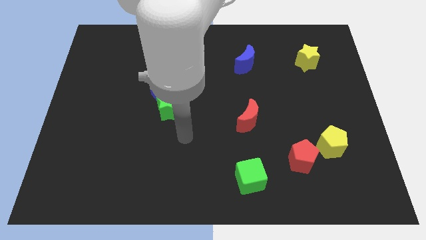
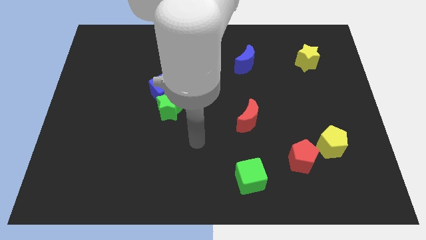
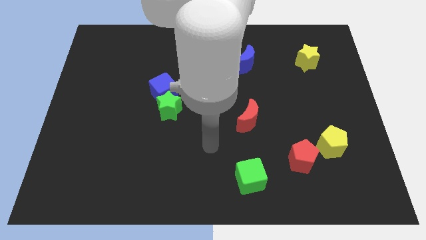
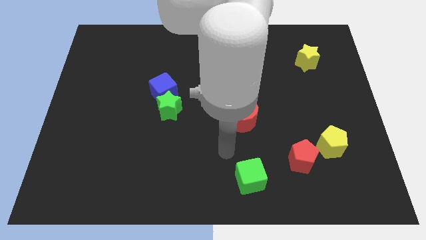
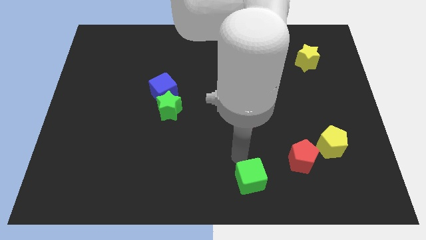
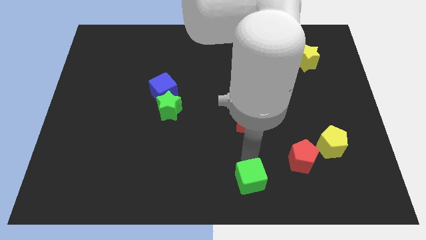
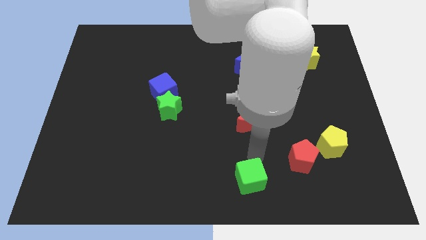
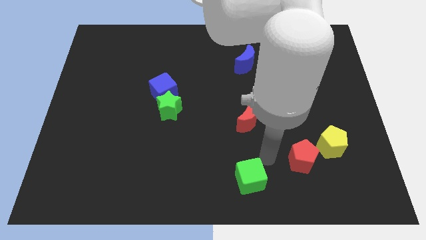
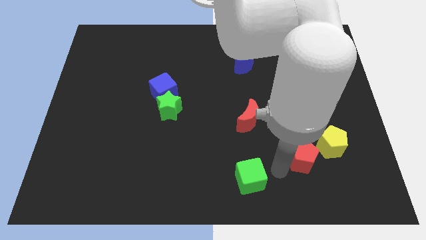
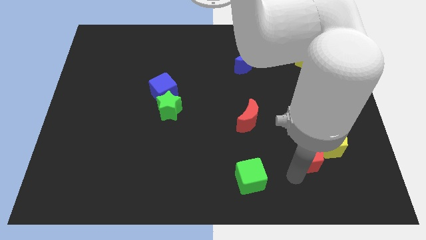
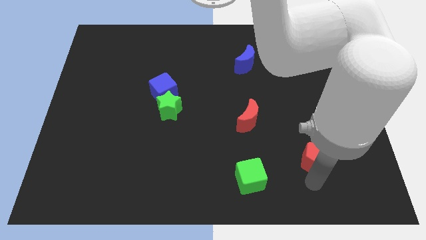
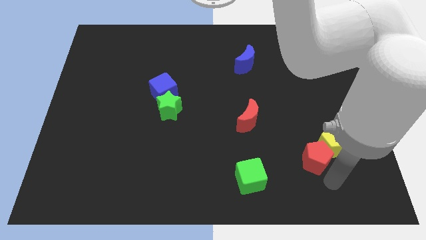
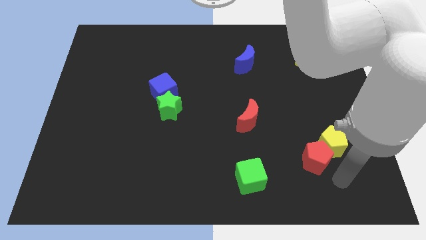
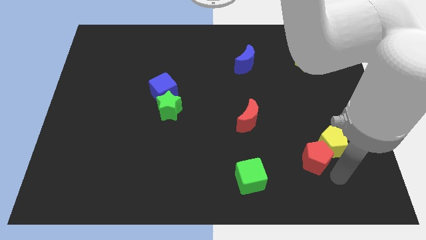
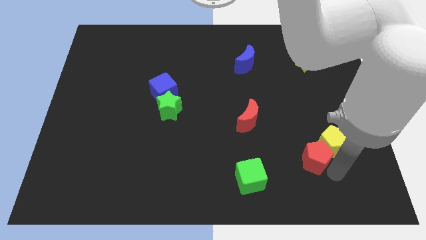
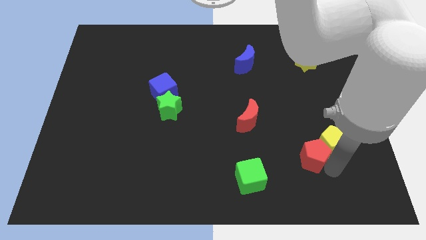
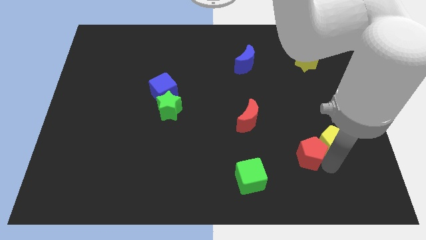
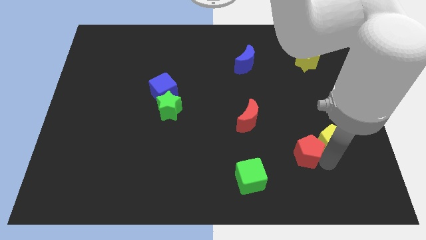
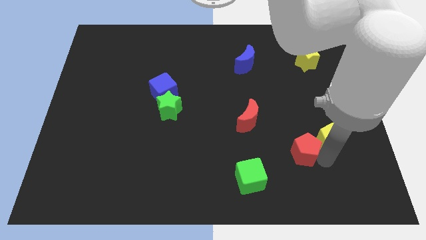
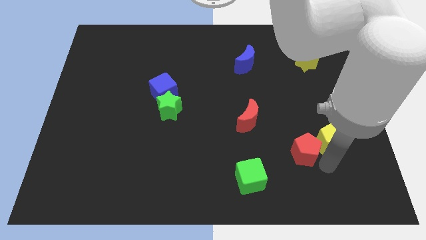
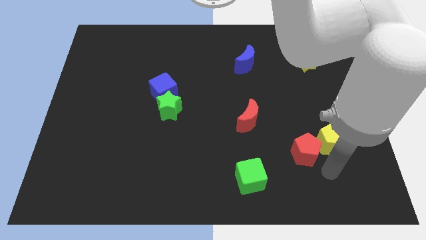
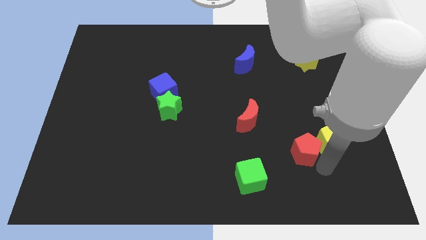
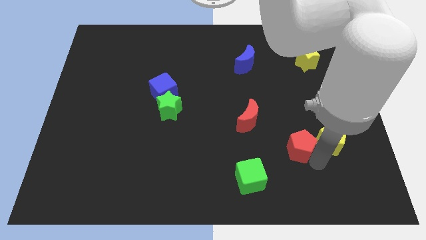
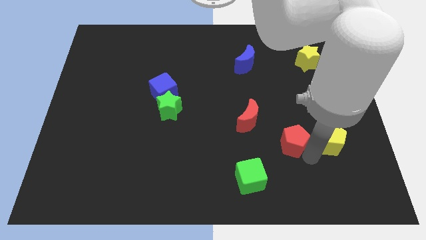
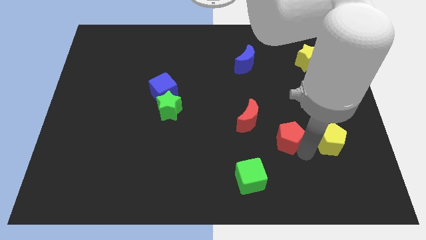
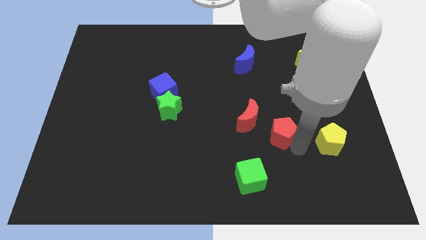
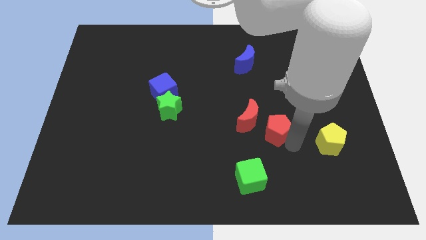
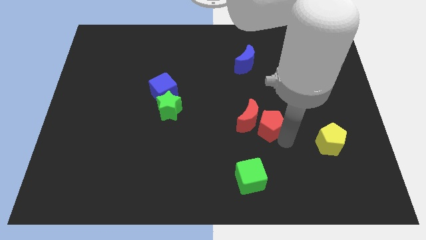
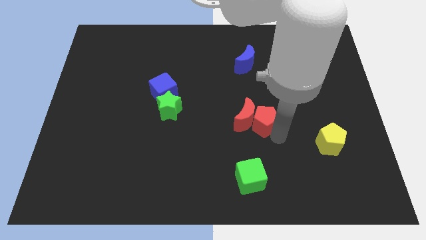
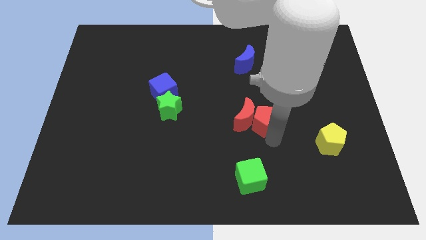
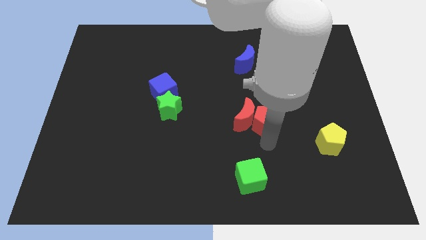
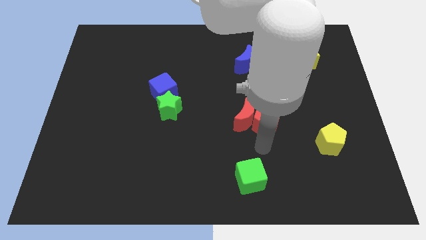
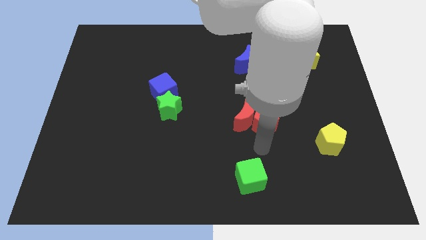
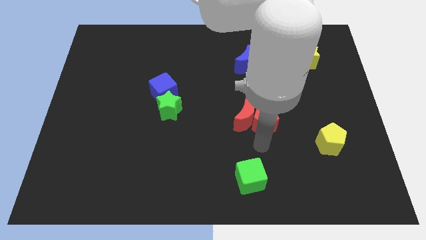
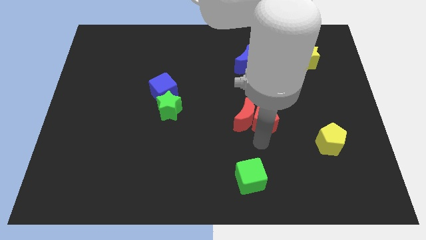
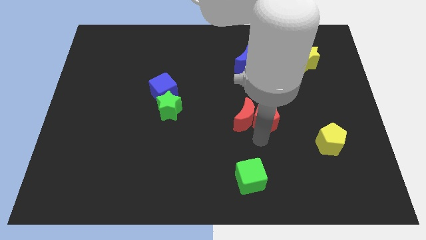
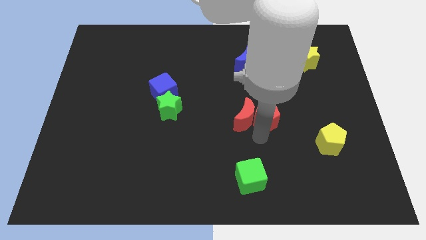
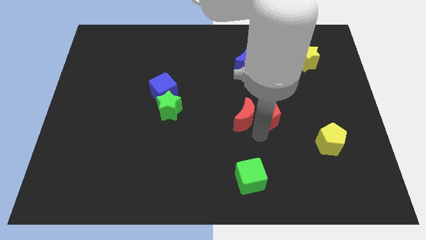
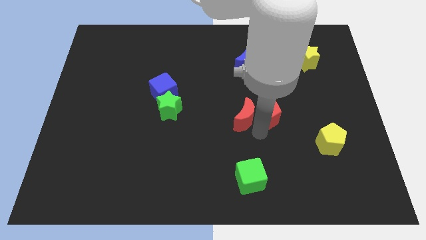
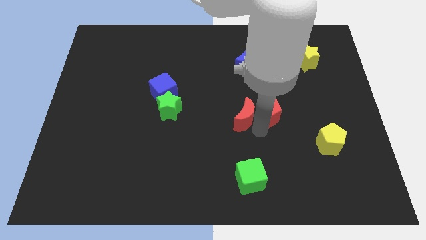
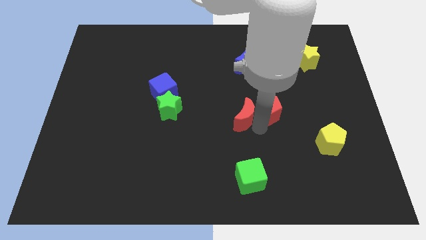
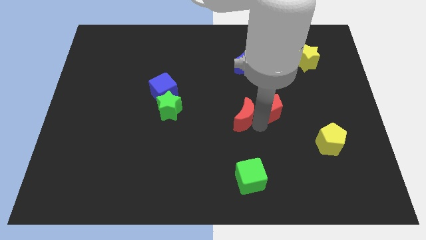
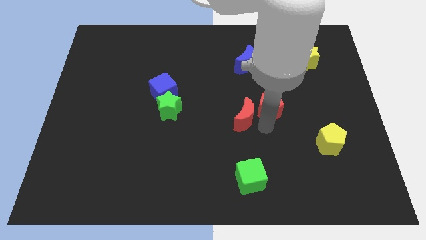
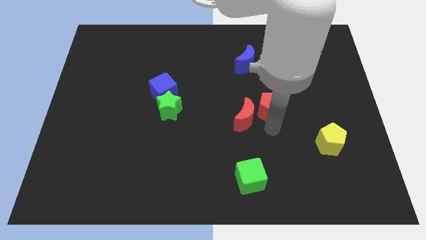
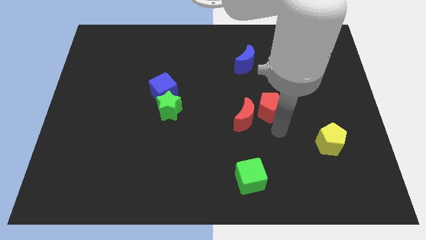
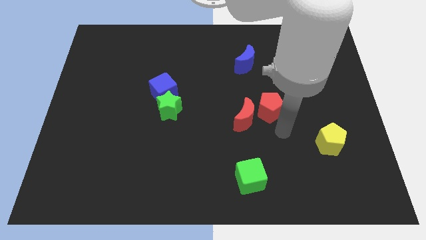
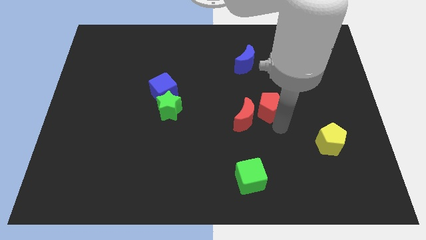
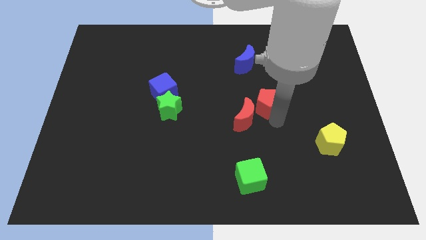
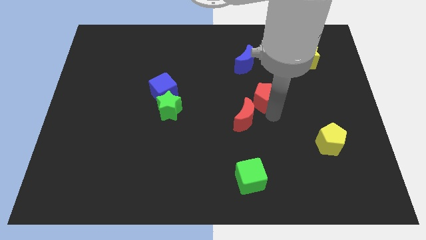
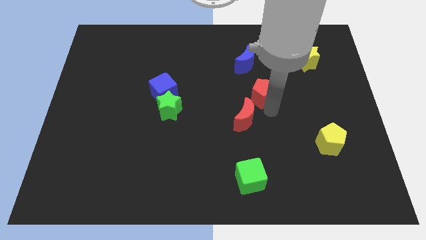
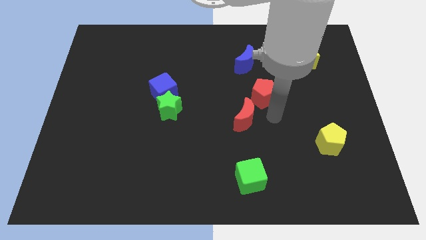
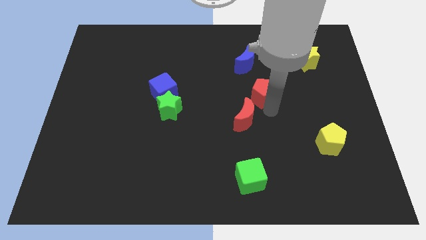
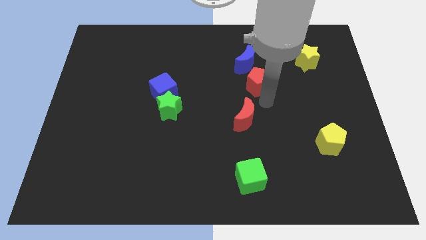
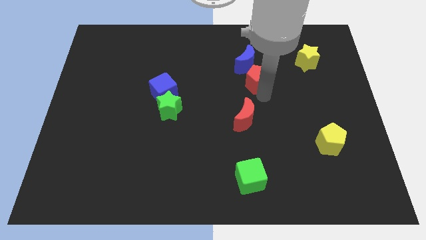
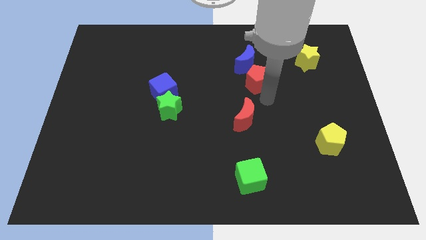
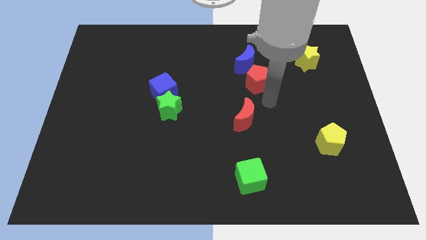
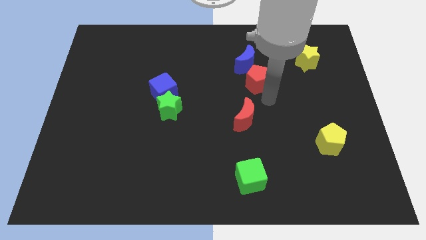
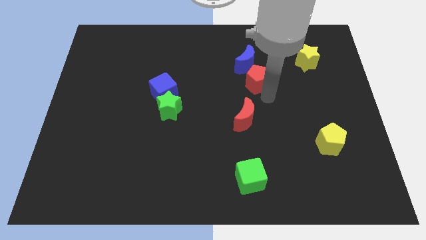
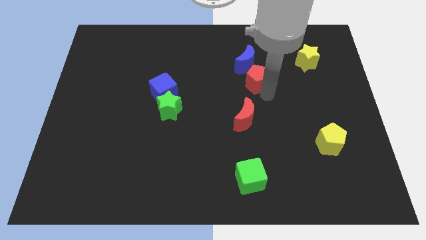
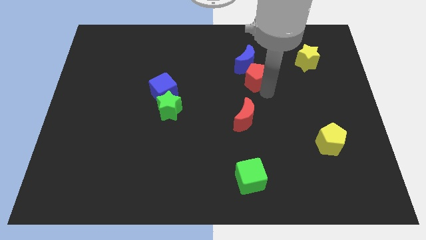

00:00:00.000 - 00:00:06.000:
move the red pentagon next to the blue moon

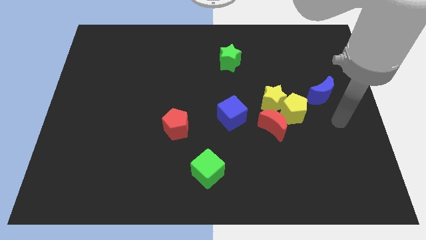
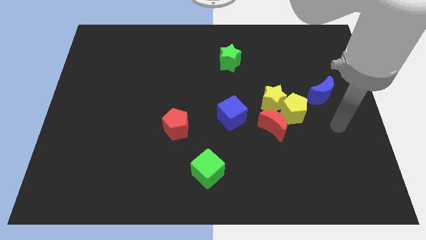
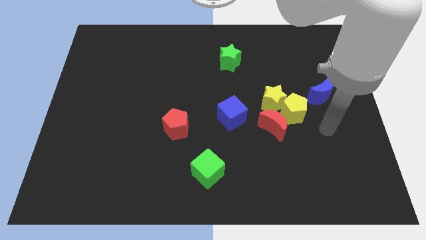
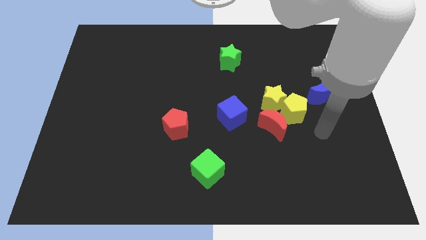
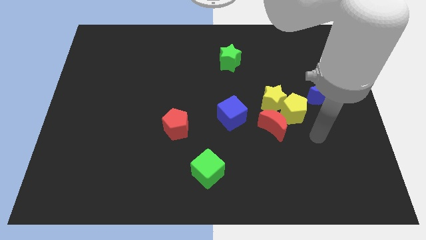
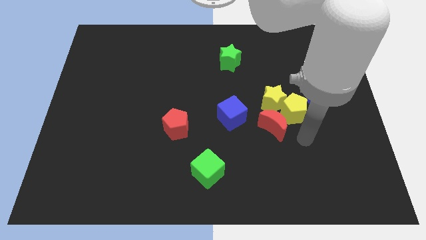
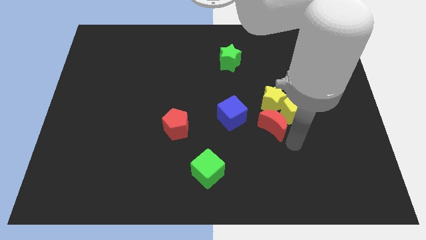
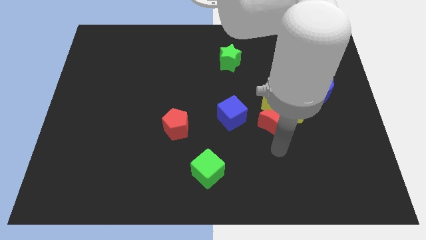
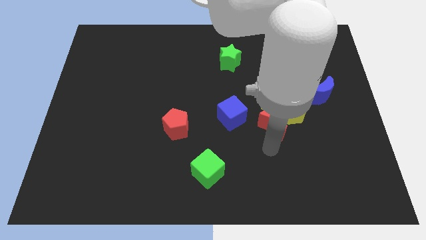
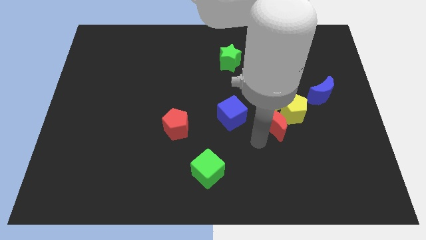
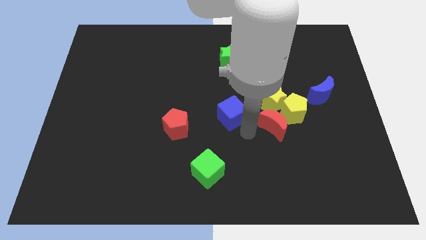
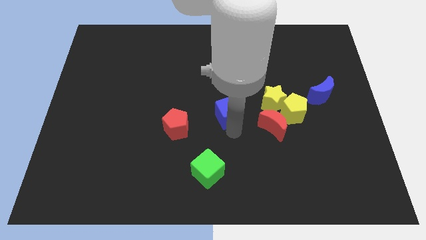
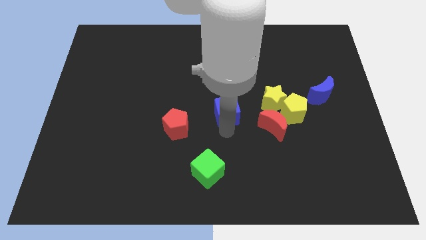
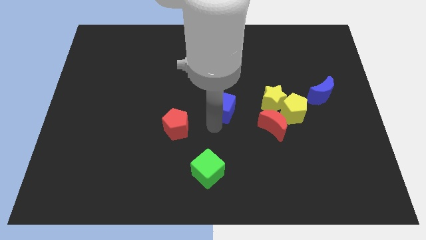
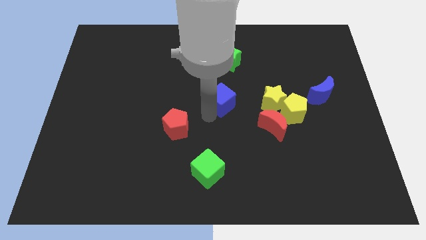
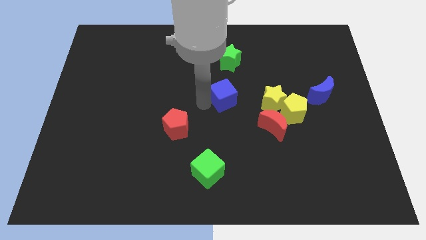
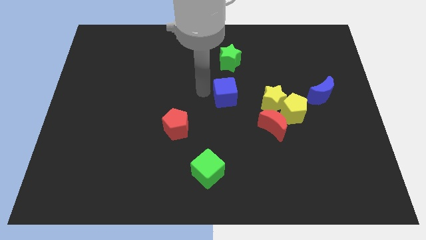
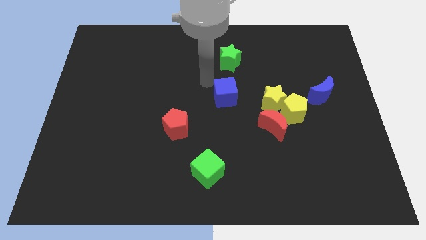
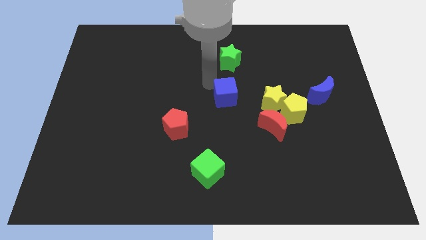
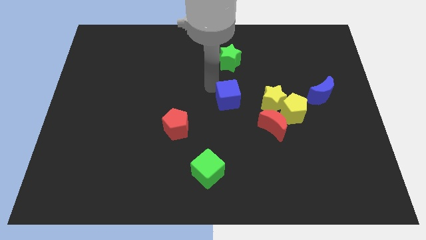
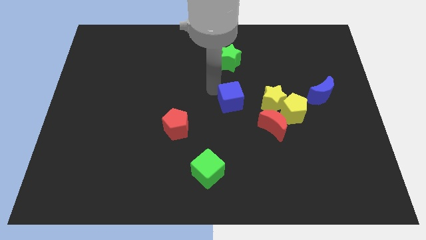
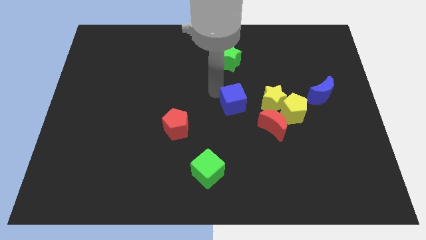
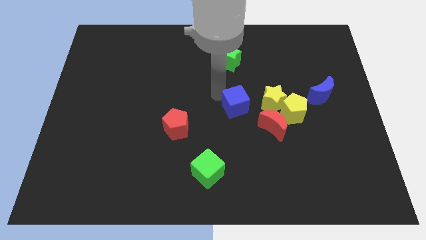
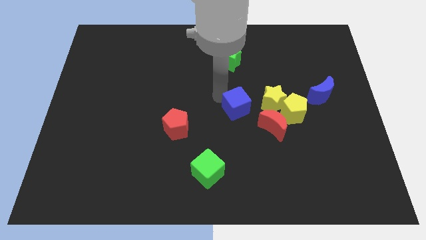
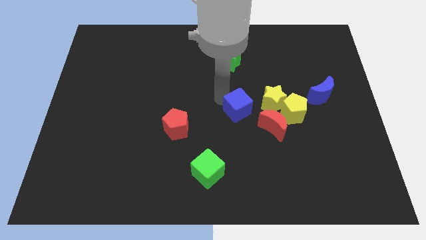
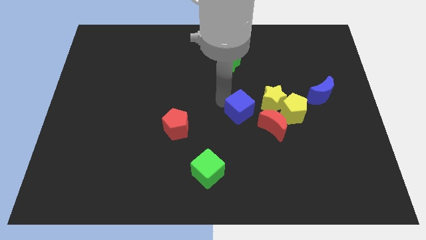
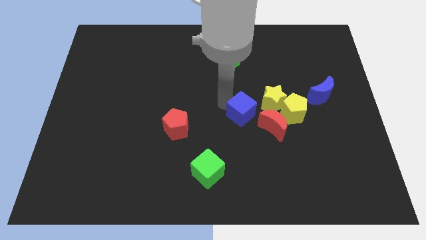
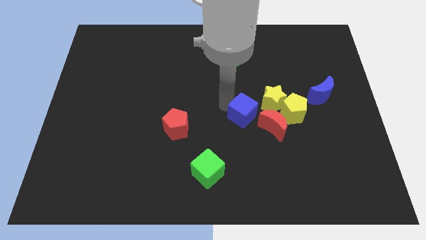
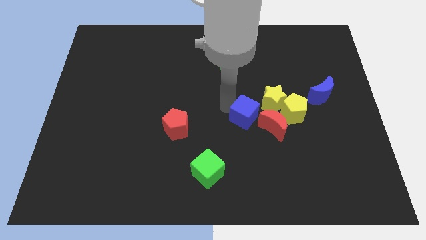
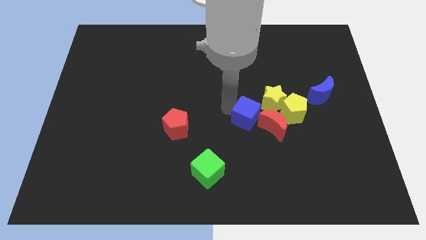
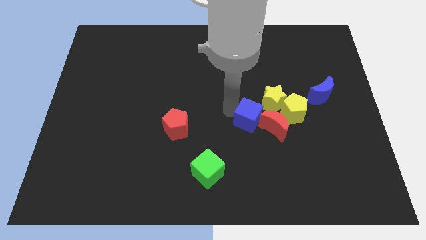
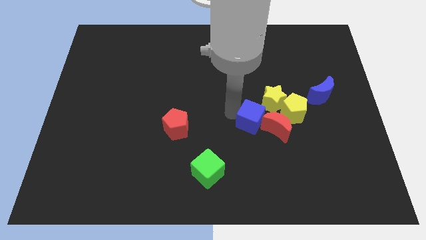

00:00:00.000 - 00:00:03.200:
slide the blue cube close to the red moon
